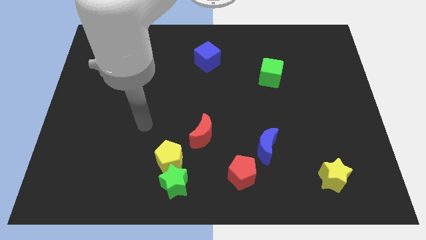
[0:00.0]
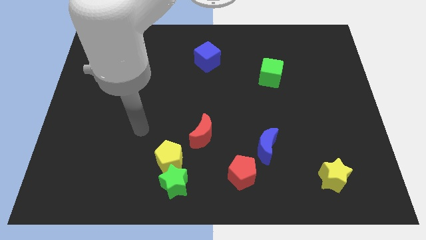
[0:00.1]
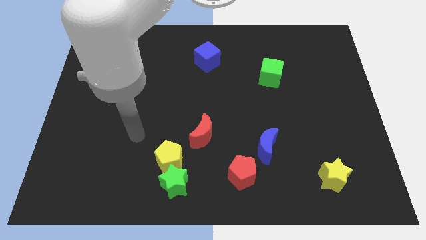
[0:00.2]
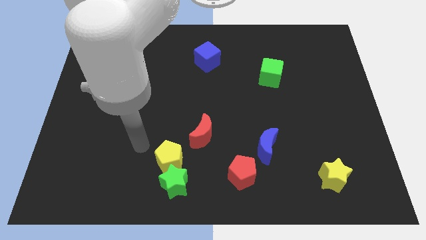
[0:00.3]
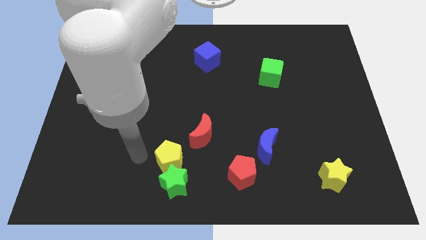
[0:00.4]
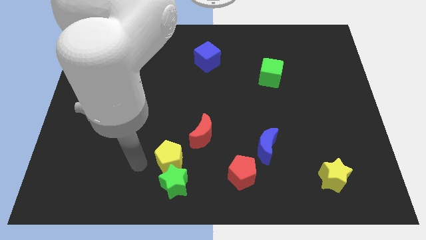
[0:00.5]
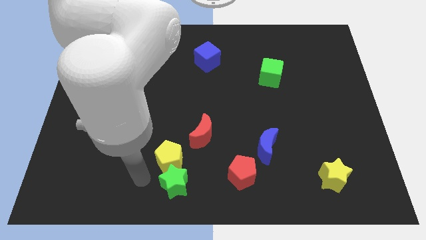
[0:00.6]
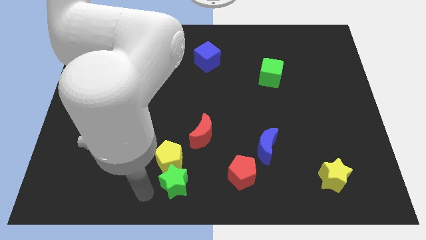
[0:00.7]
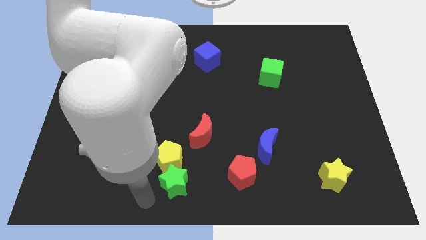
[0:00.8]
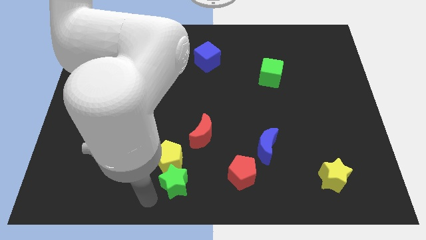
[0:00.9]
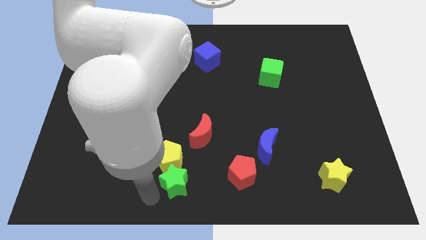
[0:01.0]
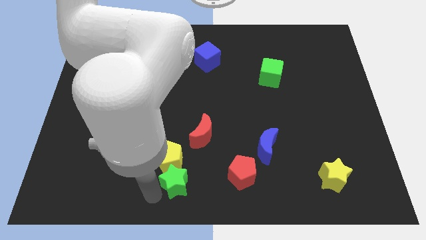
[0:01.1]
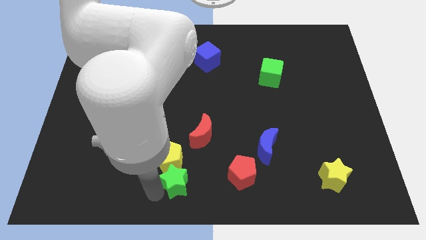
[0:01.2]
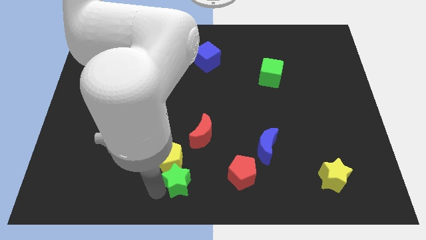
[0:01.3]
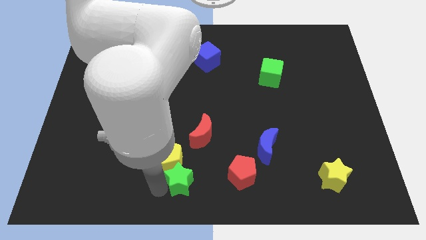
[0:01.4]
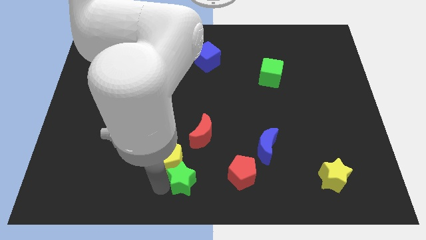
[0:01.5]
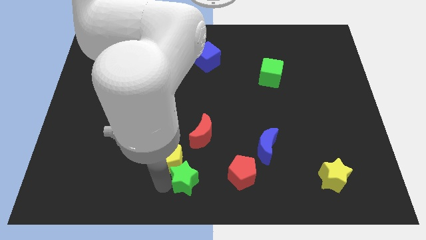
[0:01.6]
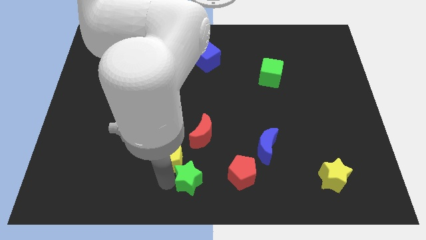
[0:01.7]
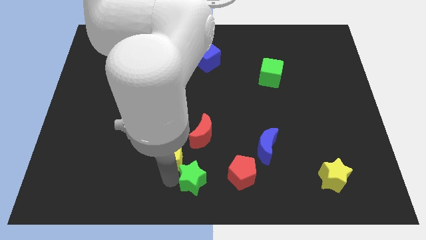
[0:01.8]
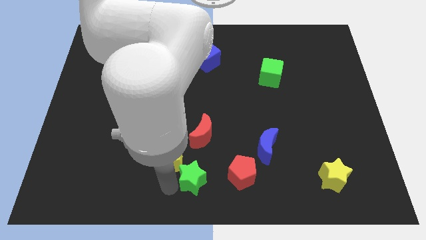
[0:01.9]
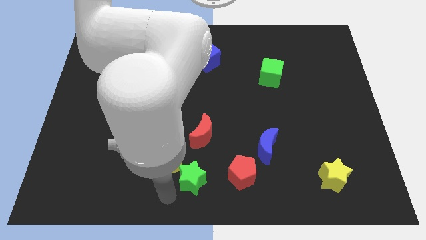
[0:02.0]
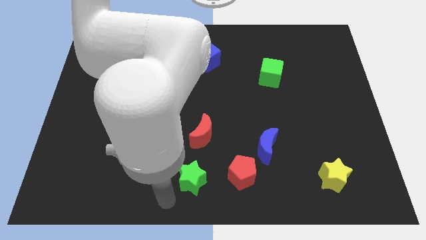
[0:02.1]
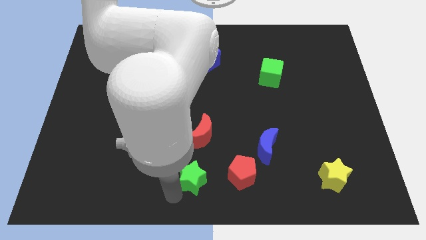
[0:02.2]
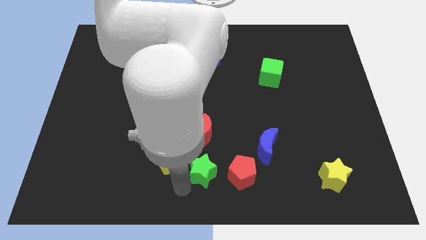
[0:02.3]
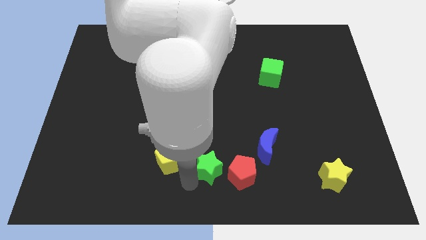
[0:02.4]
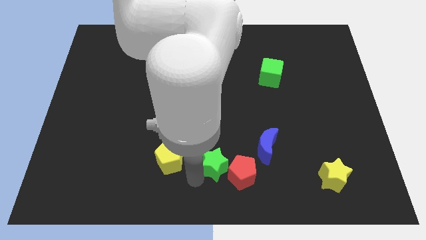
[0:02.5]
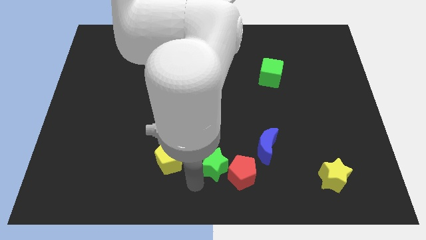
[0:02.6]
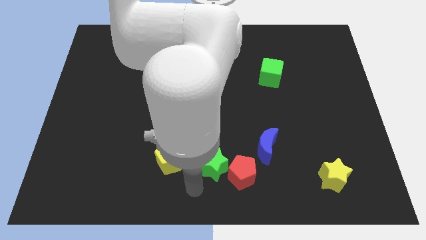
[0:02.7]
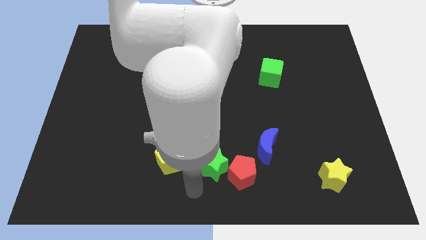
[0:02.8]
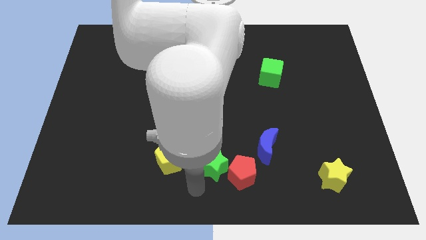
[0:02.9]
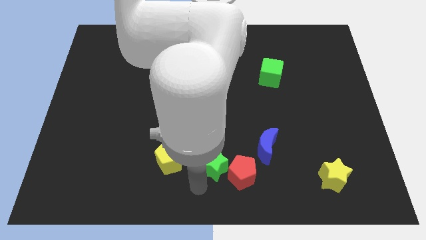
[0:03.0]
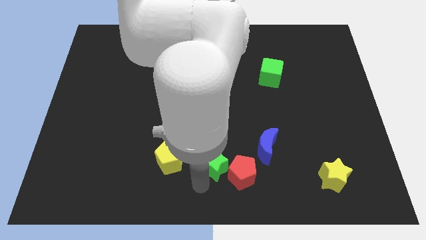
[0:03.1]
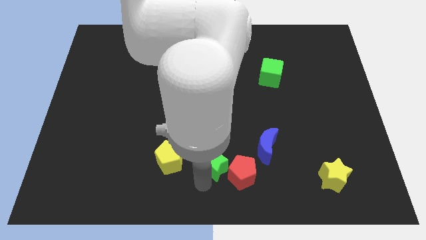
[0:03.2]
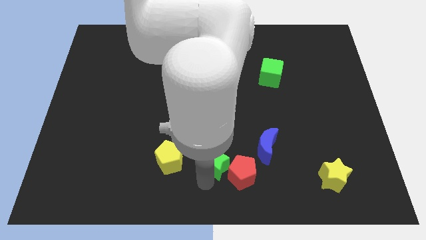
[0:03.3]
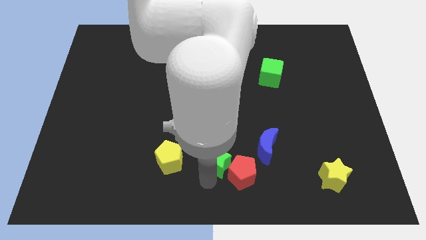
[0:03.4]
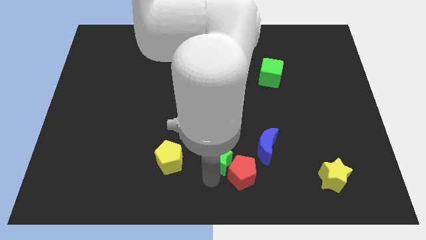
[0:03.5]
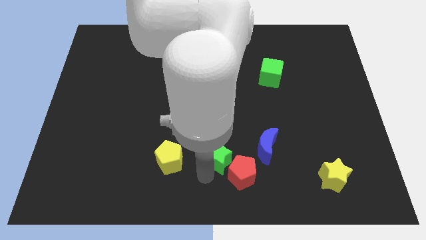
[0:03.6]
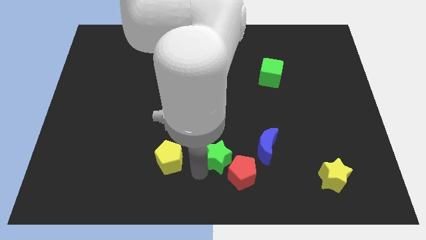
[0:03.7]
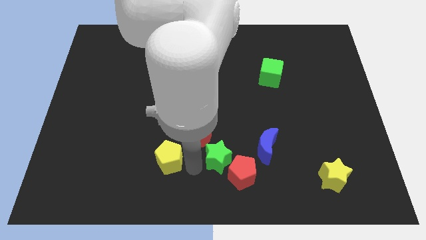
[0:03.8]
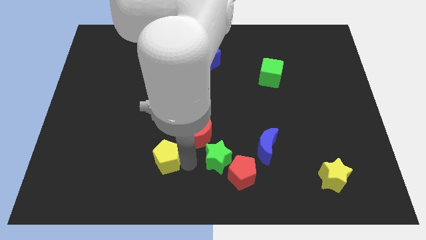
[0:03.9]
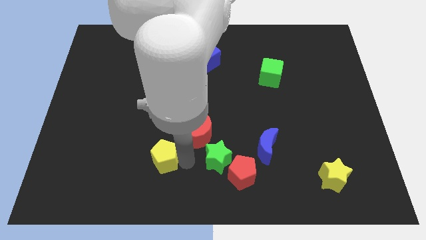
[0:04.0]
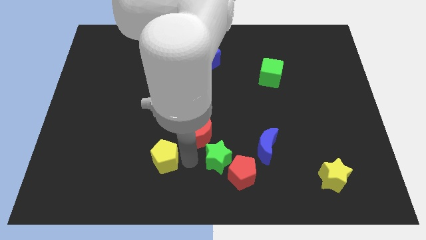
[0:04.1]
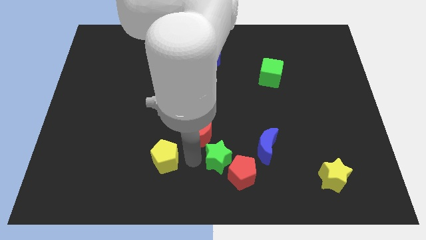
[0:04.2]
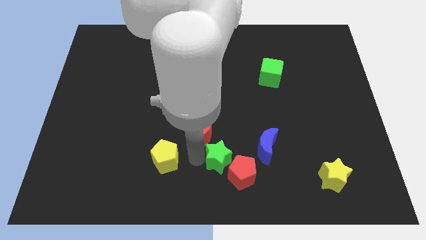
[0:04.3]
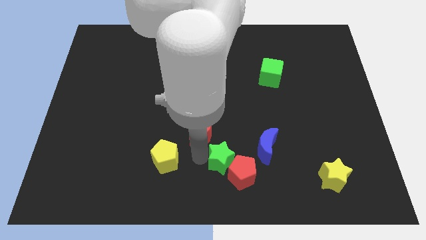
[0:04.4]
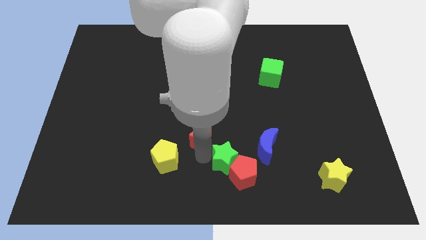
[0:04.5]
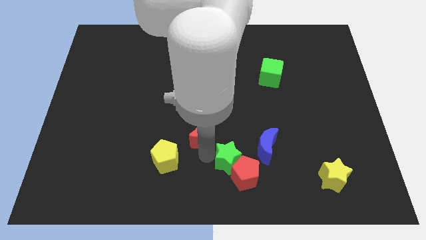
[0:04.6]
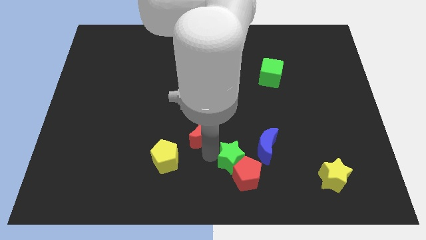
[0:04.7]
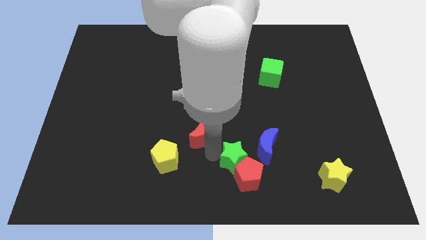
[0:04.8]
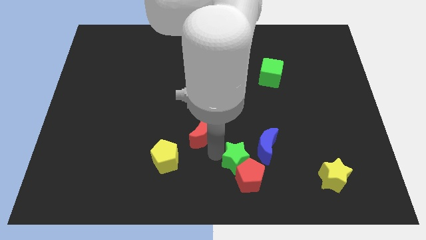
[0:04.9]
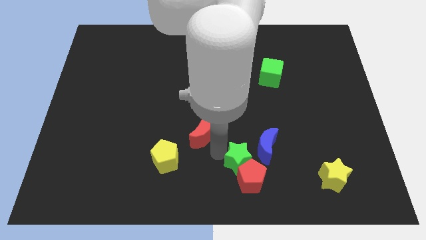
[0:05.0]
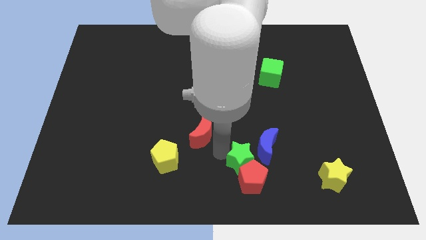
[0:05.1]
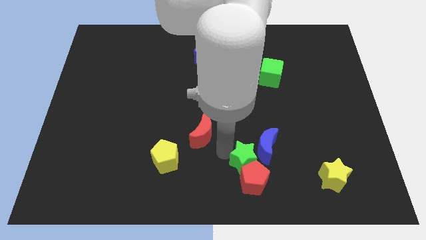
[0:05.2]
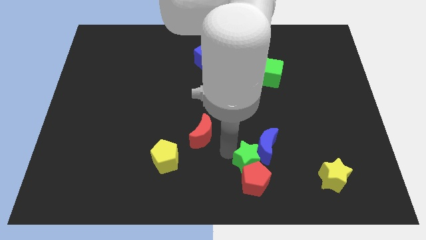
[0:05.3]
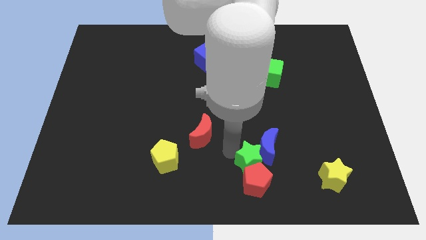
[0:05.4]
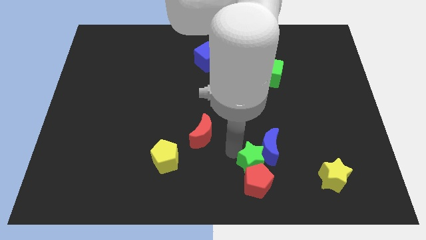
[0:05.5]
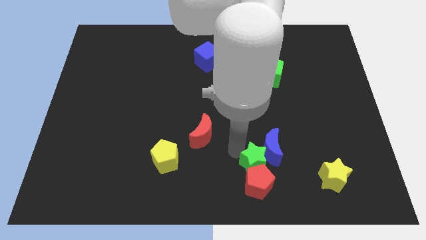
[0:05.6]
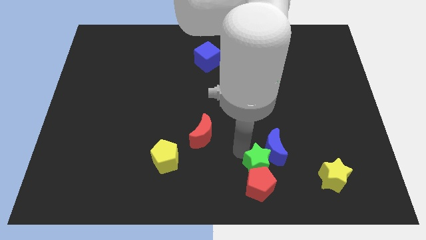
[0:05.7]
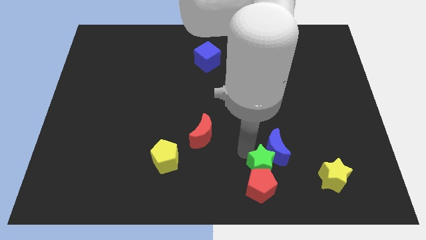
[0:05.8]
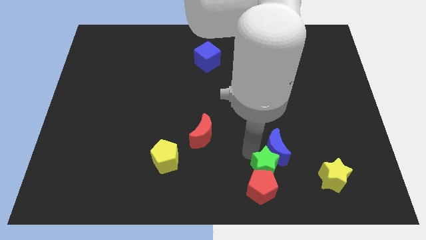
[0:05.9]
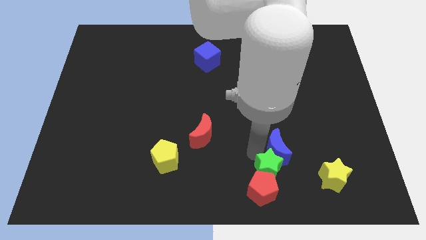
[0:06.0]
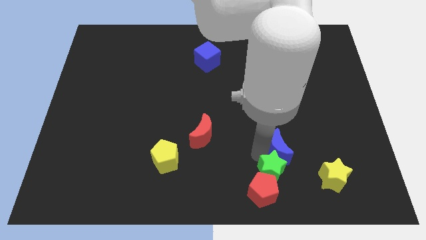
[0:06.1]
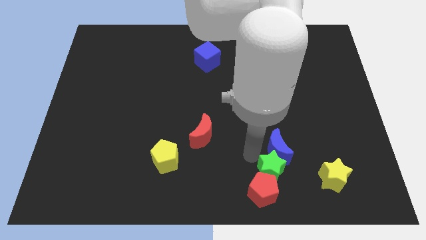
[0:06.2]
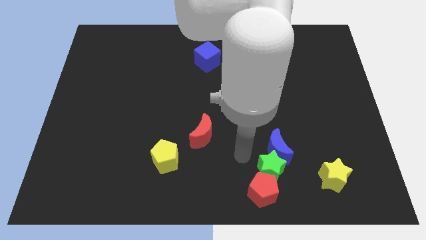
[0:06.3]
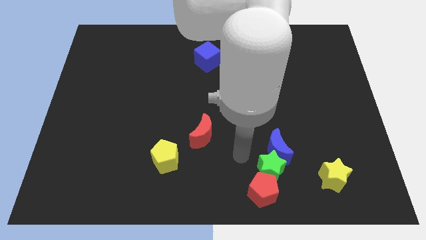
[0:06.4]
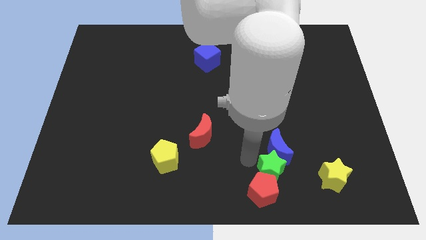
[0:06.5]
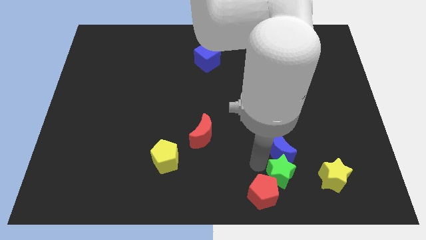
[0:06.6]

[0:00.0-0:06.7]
move the green star to the right side of the red pentagon
